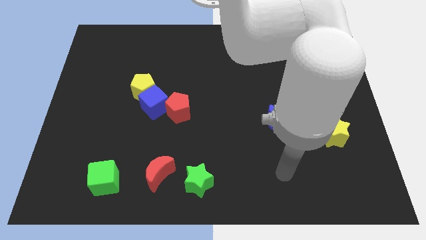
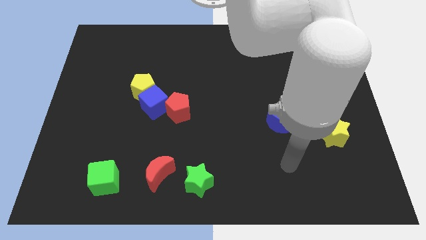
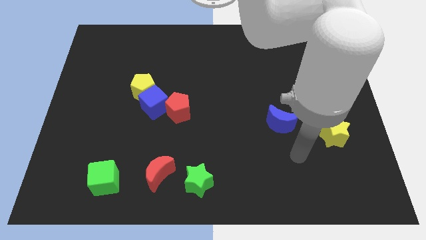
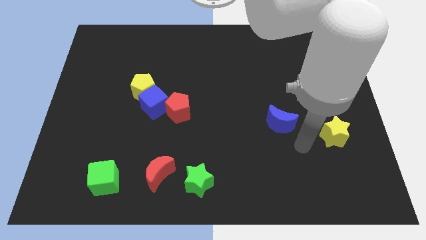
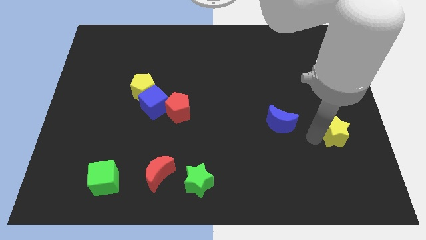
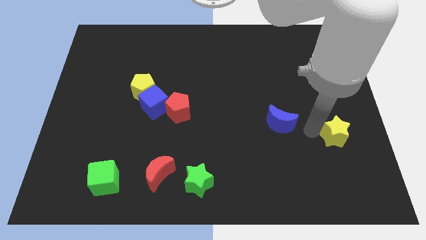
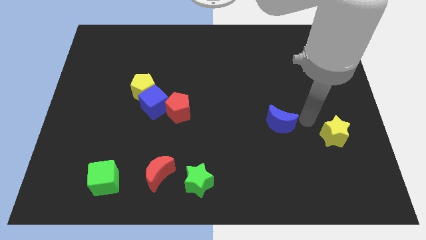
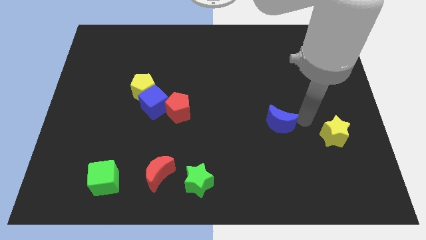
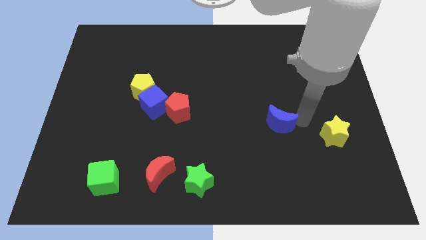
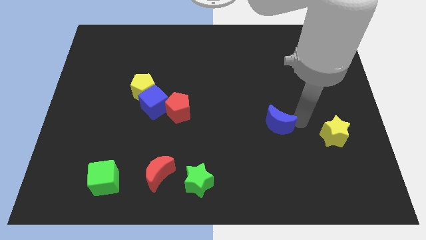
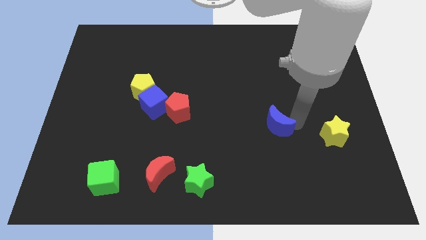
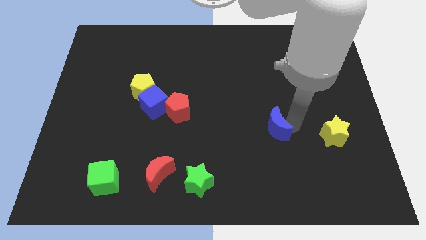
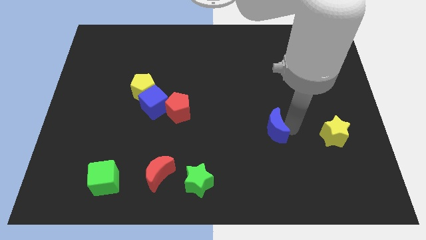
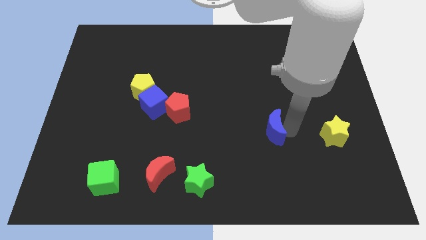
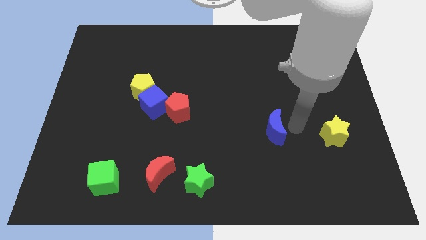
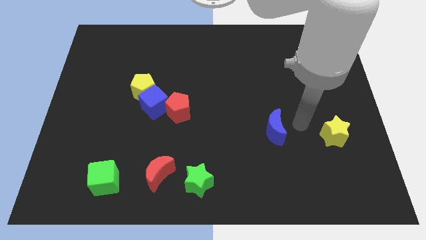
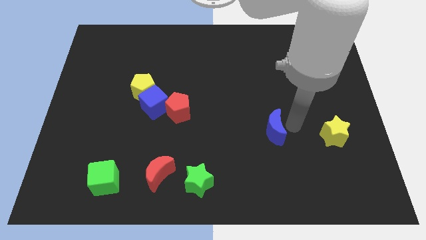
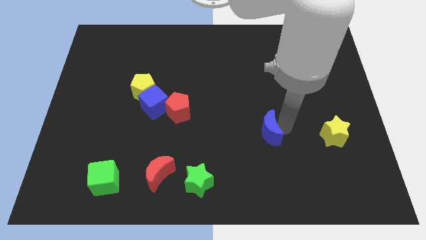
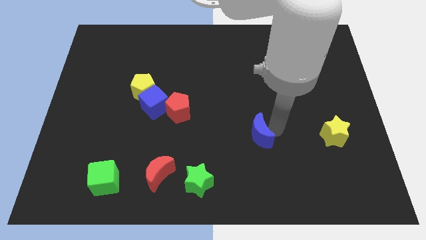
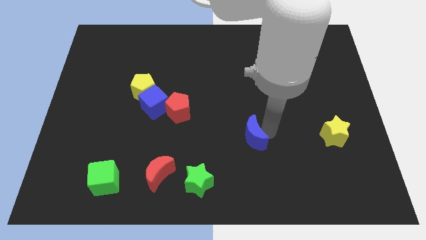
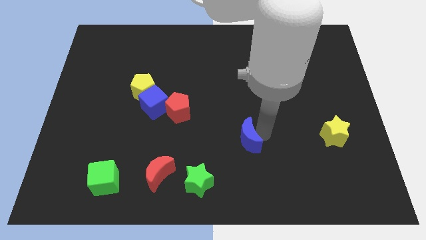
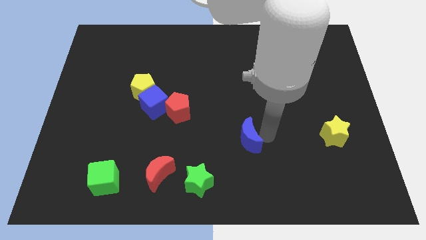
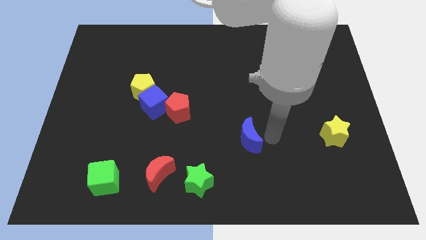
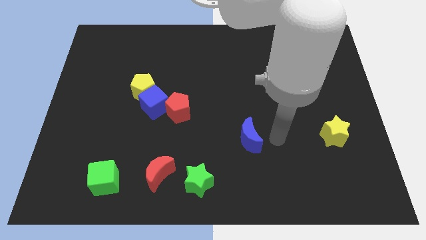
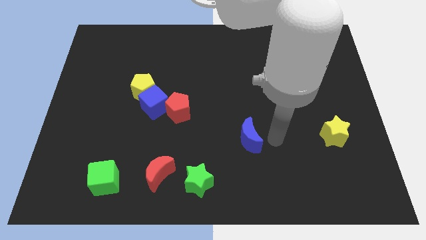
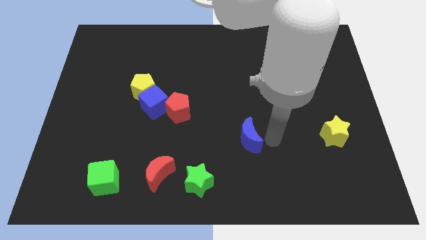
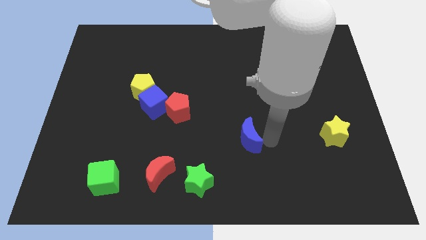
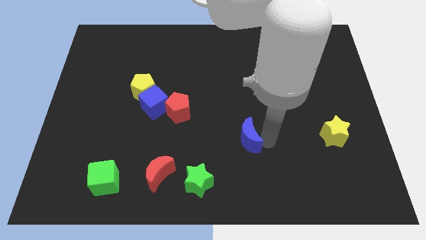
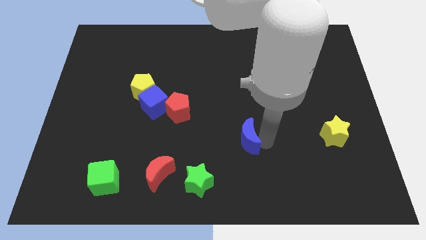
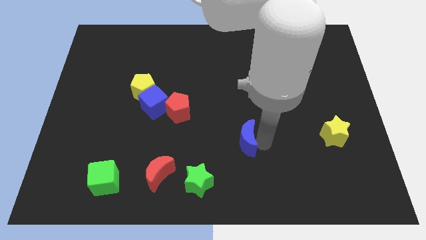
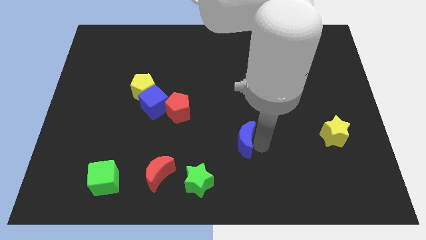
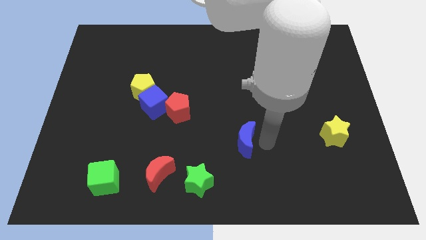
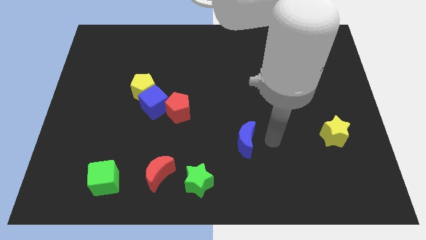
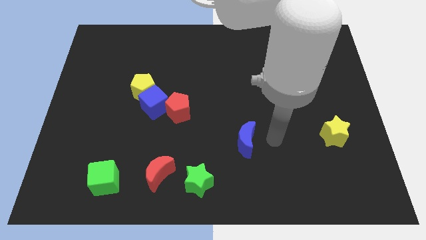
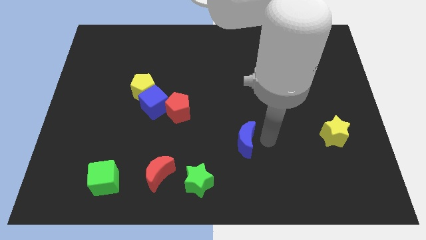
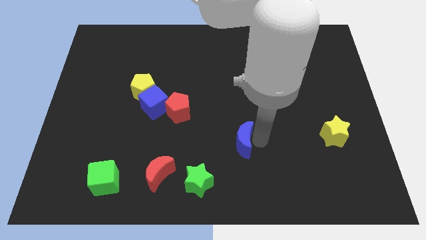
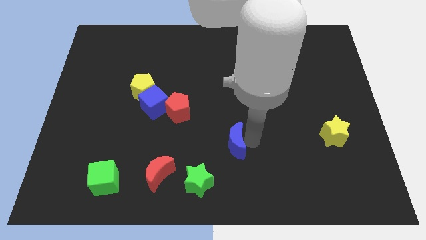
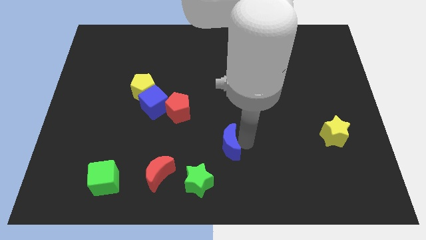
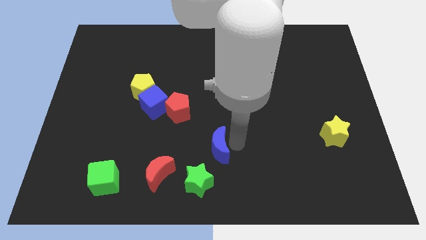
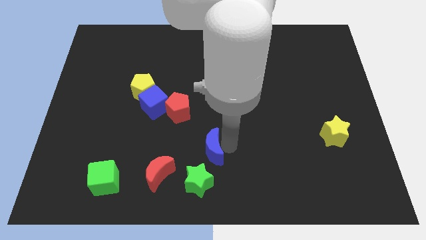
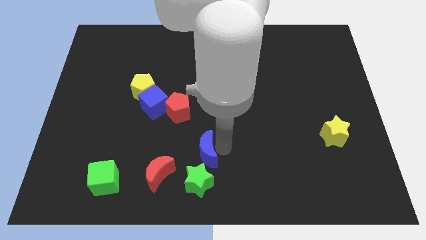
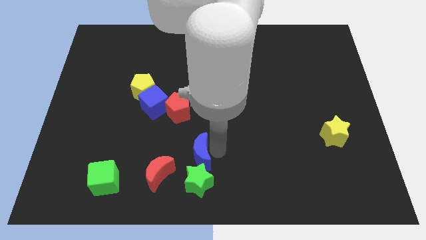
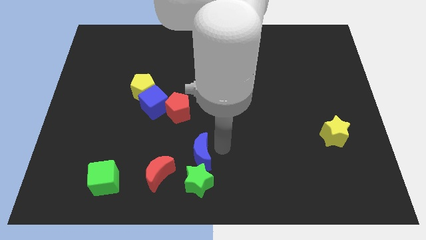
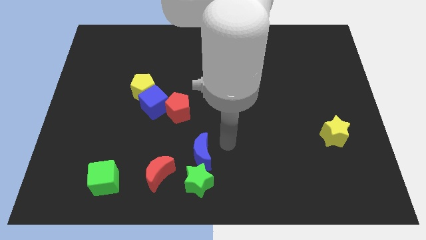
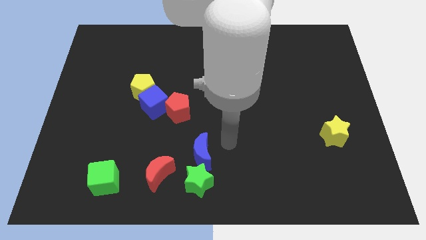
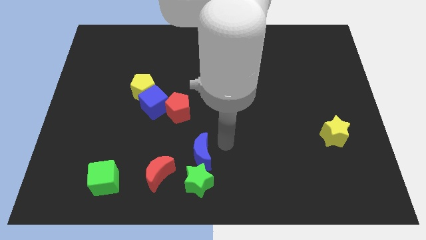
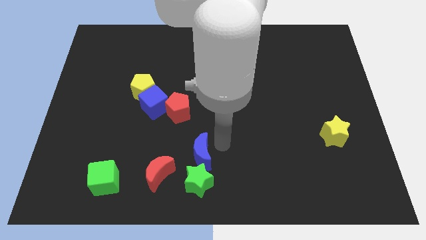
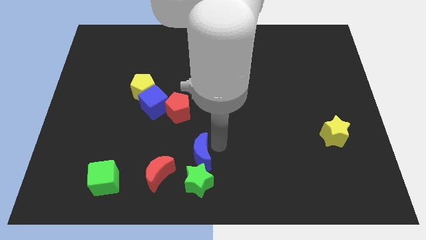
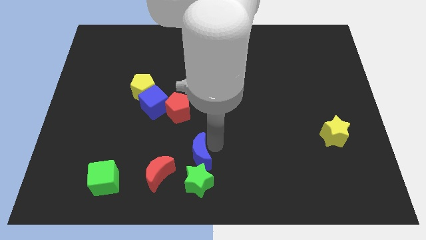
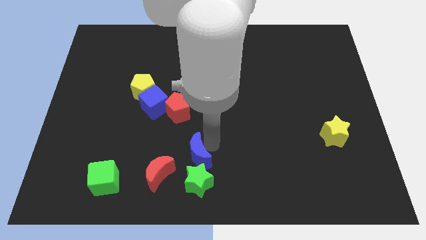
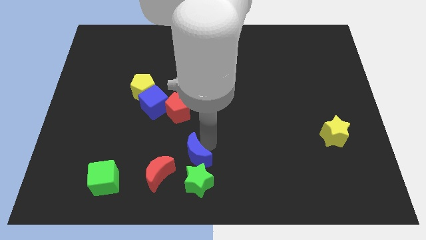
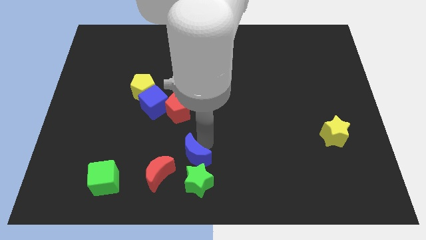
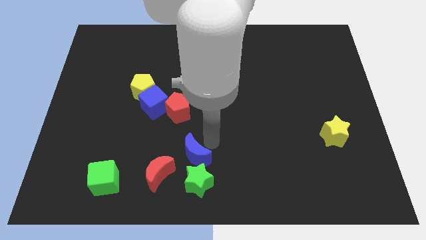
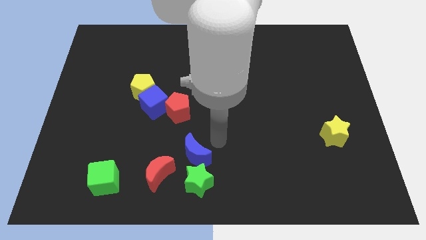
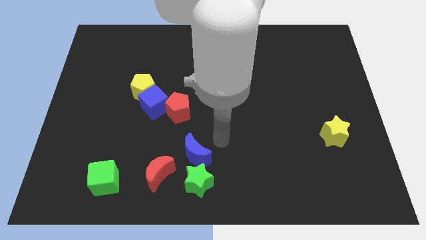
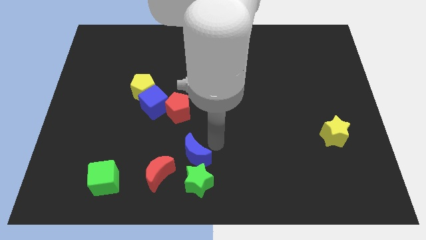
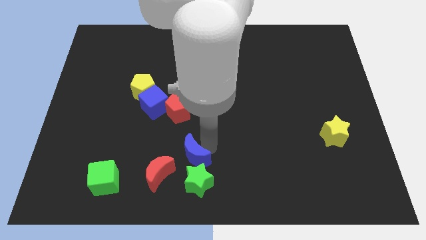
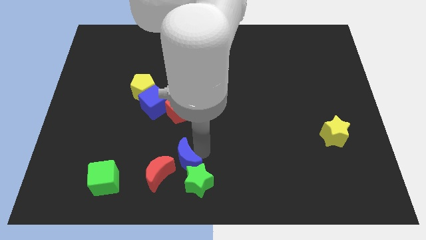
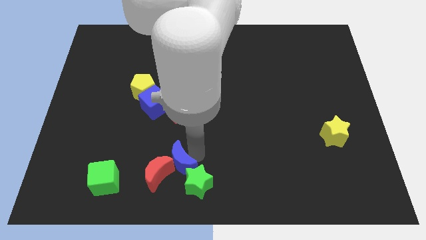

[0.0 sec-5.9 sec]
move the blue moon to the red moon

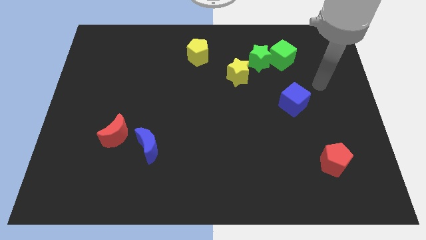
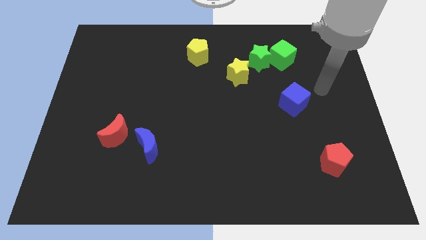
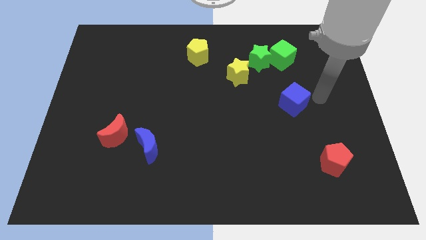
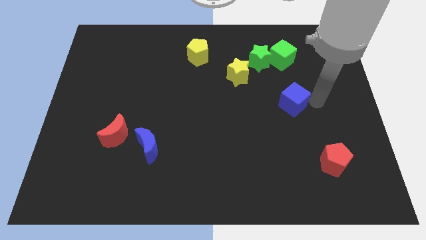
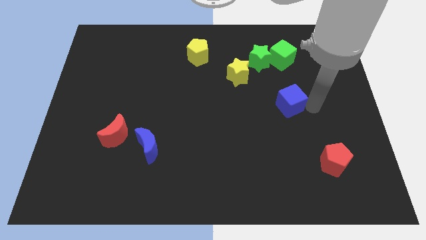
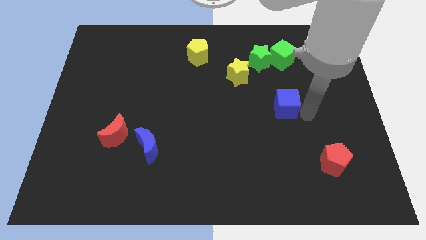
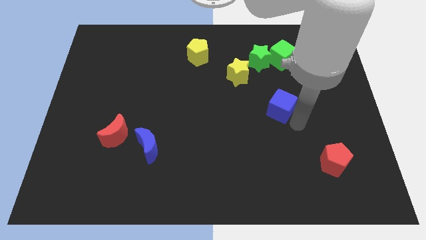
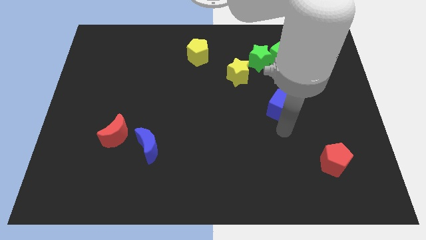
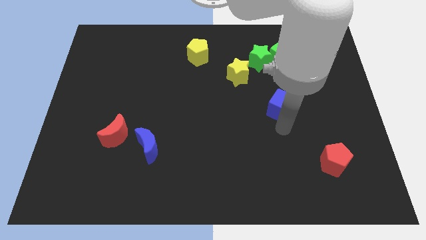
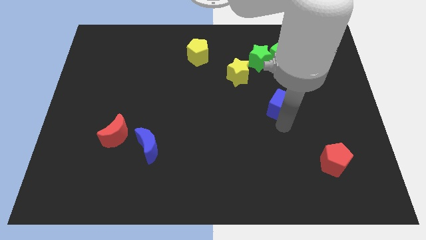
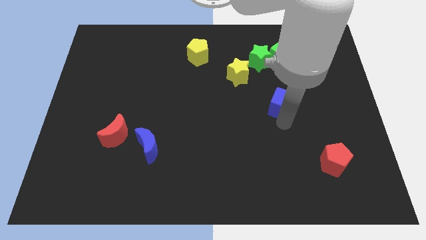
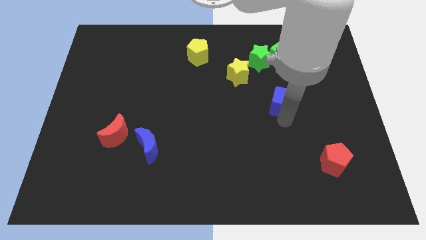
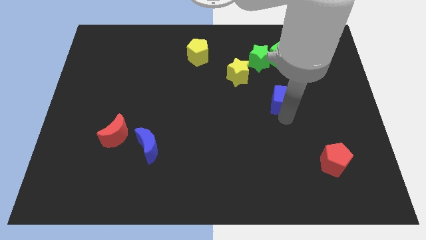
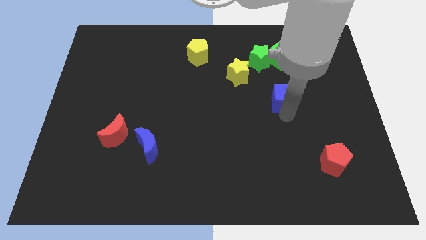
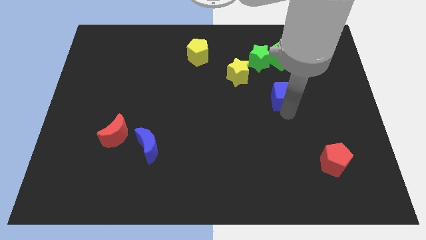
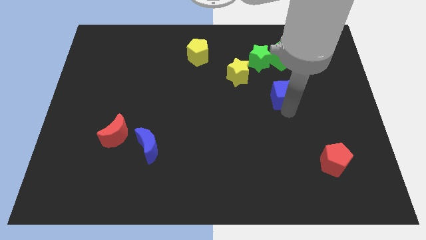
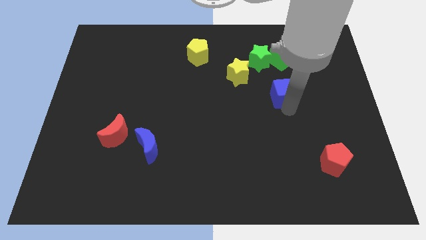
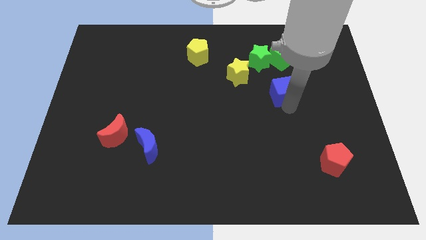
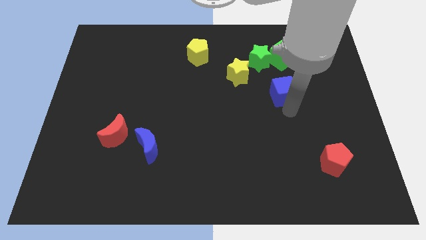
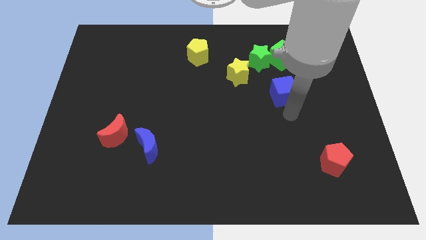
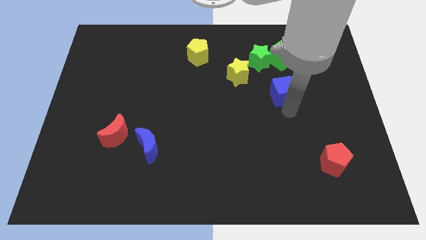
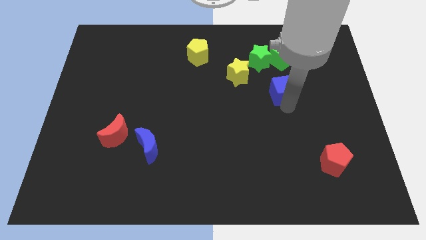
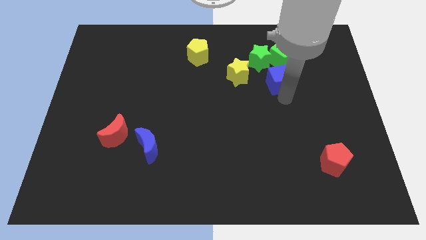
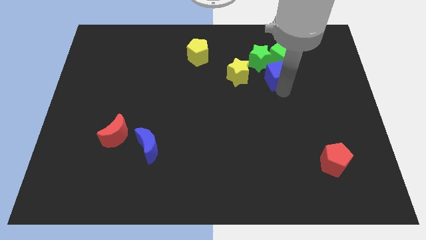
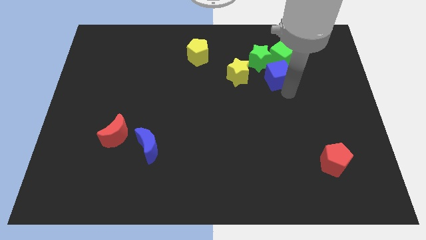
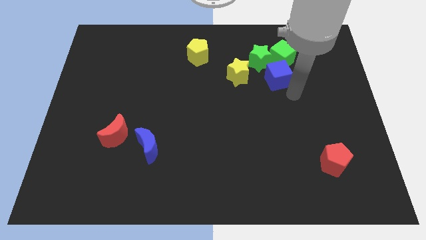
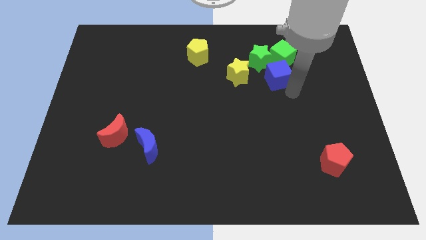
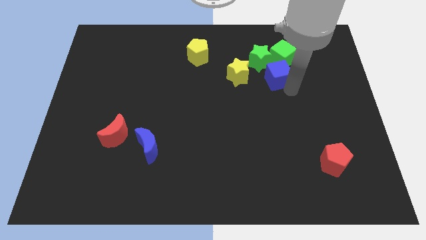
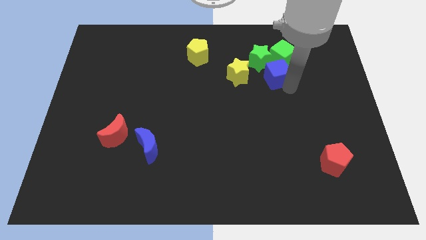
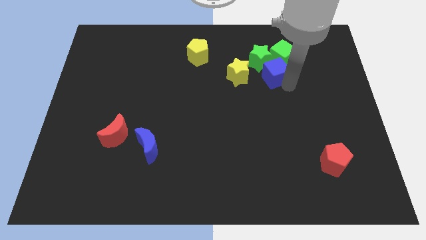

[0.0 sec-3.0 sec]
move the blue cube to the green star
